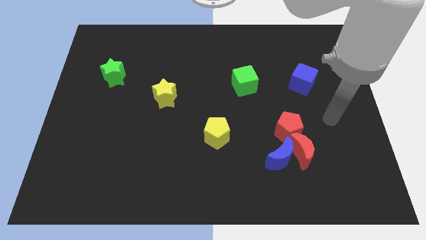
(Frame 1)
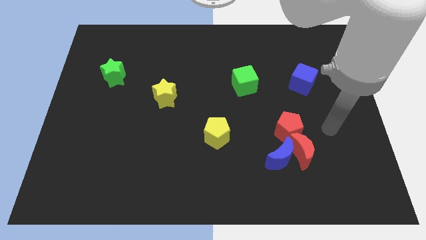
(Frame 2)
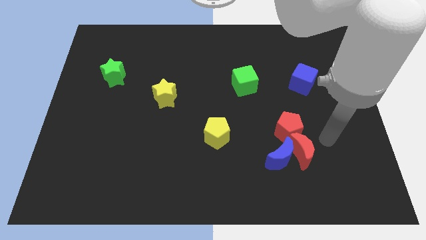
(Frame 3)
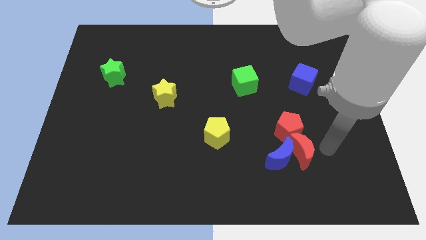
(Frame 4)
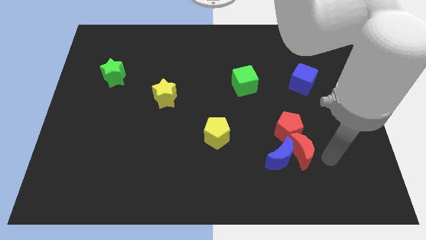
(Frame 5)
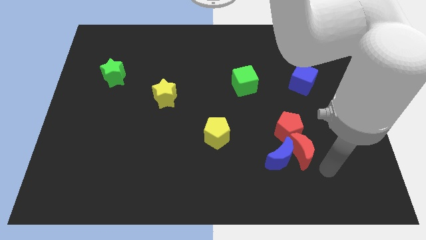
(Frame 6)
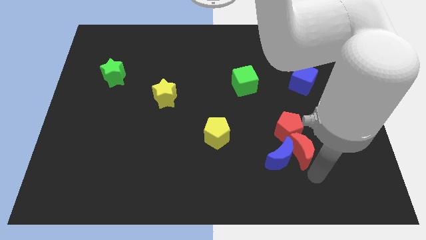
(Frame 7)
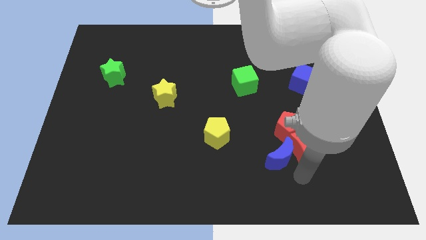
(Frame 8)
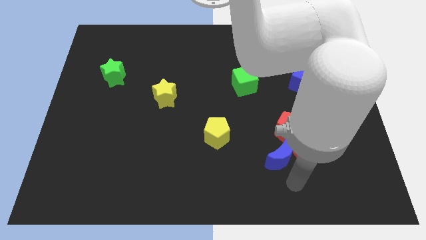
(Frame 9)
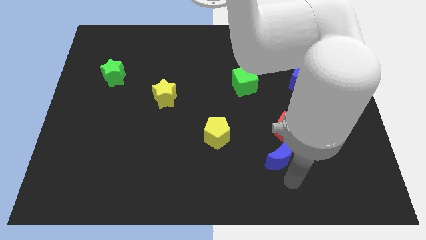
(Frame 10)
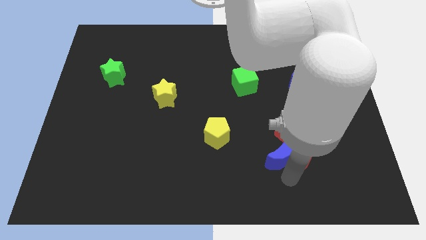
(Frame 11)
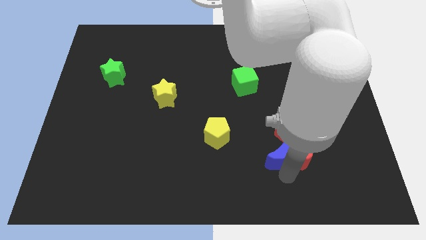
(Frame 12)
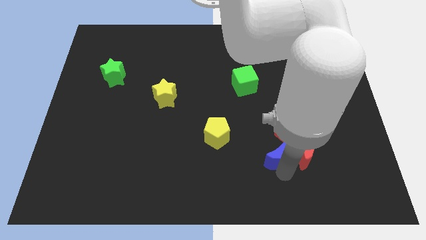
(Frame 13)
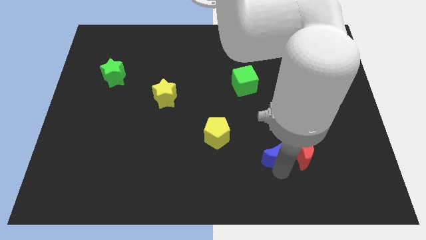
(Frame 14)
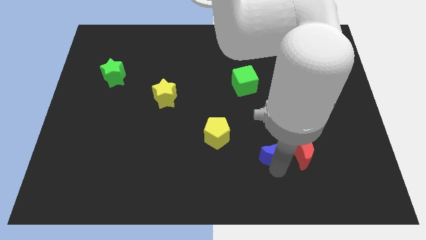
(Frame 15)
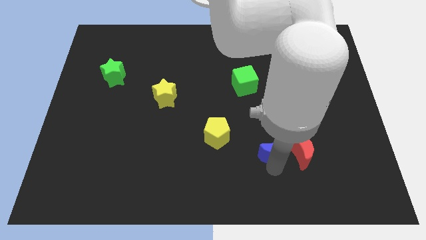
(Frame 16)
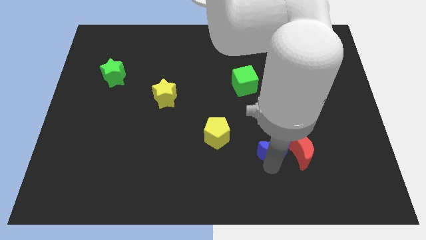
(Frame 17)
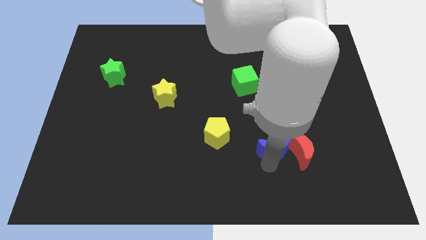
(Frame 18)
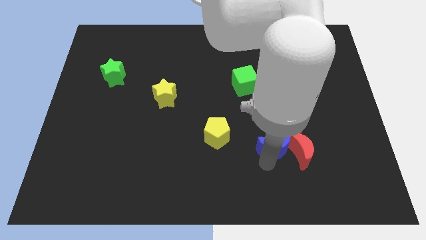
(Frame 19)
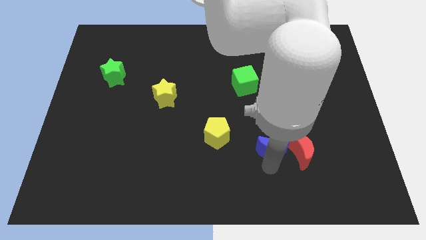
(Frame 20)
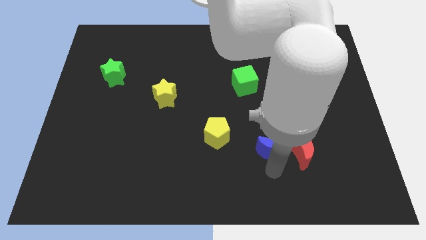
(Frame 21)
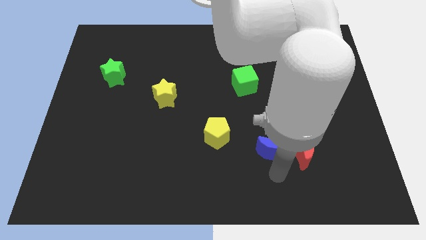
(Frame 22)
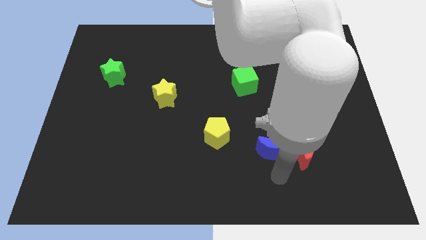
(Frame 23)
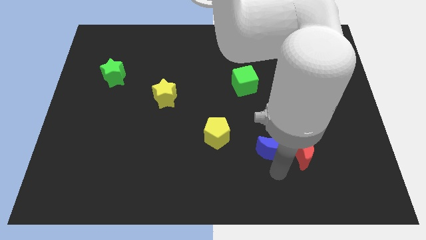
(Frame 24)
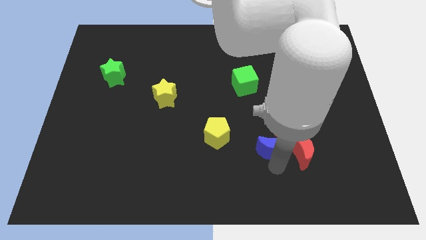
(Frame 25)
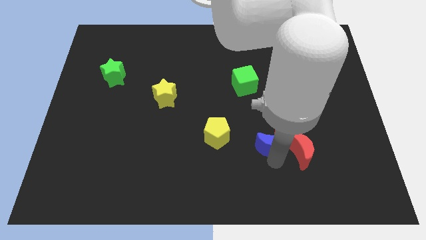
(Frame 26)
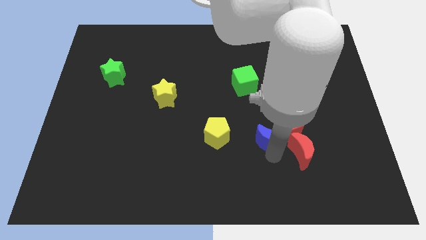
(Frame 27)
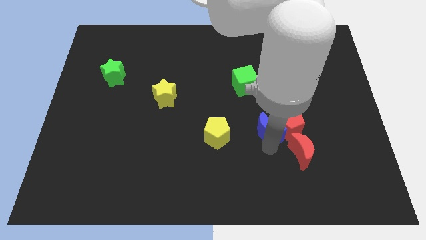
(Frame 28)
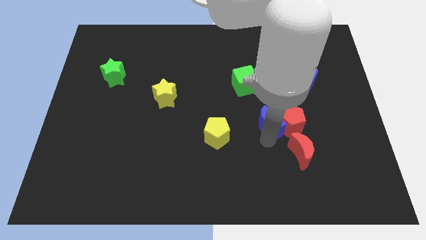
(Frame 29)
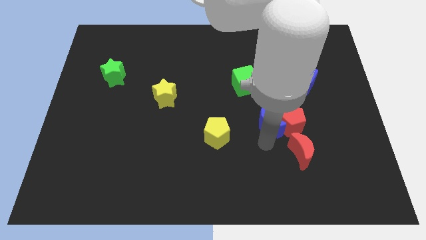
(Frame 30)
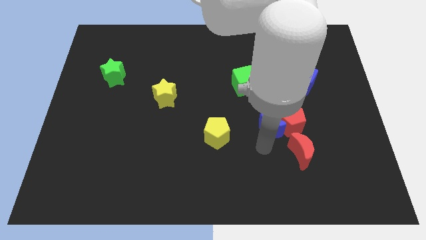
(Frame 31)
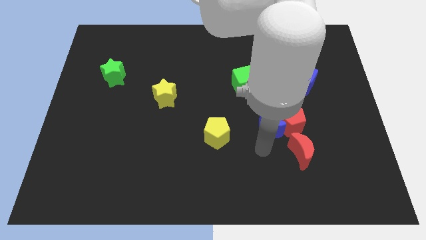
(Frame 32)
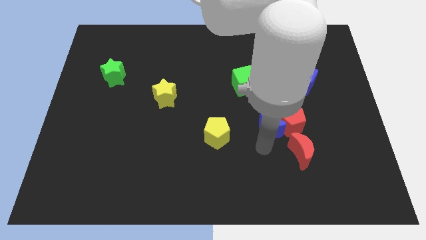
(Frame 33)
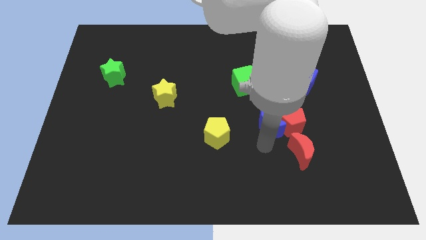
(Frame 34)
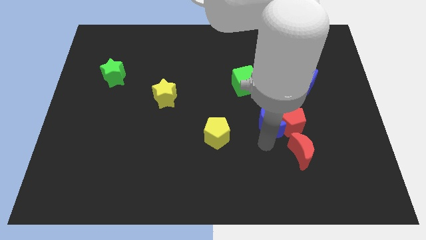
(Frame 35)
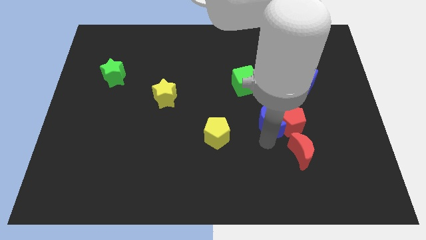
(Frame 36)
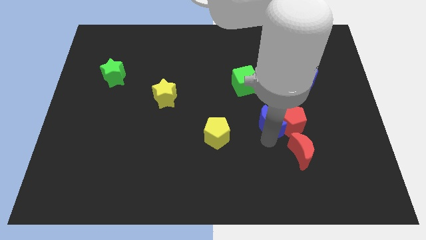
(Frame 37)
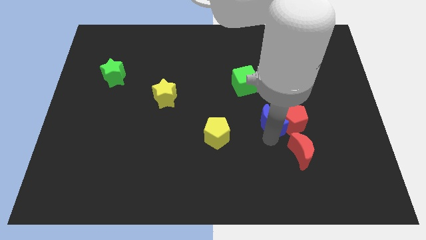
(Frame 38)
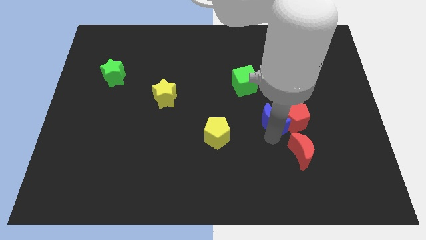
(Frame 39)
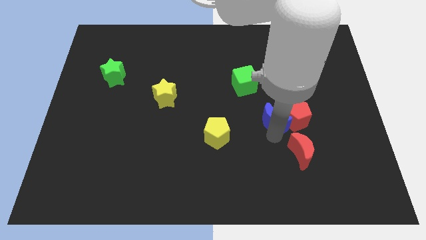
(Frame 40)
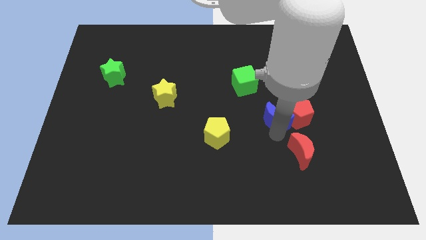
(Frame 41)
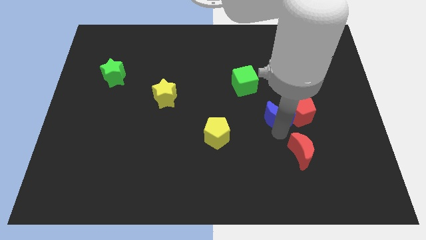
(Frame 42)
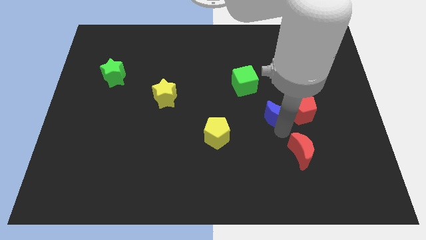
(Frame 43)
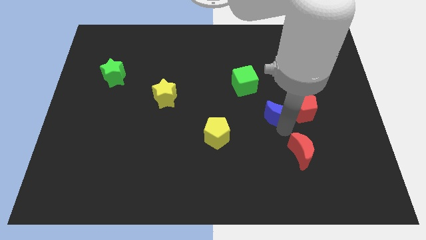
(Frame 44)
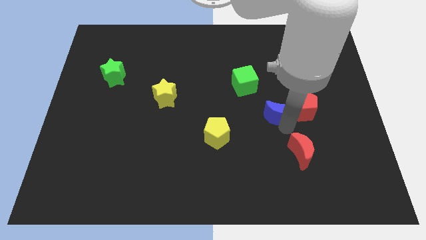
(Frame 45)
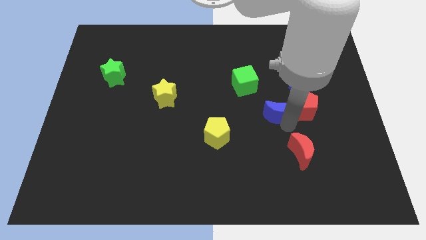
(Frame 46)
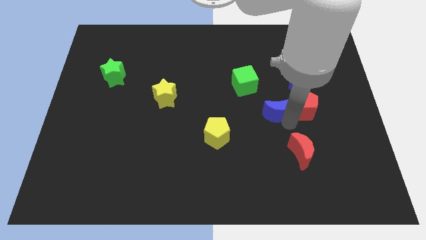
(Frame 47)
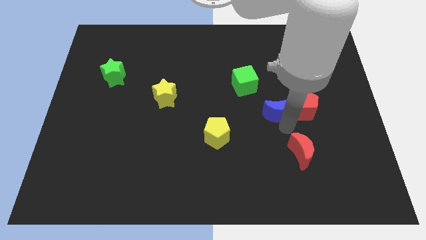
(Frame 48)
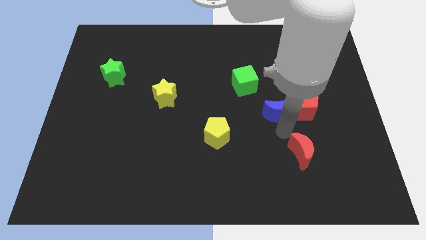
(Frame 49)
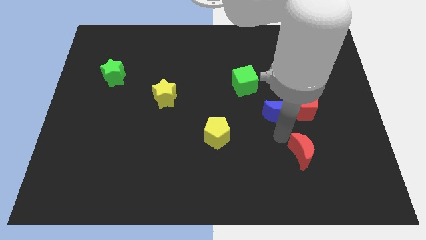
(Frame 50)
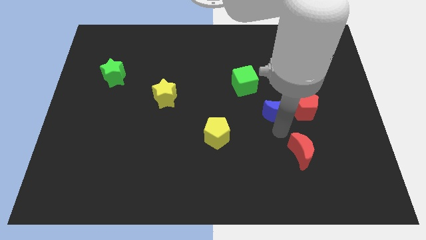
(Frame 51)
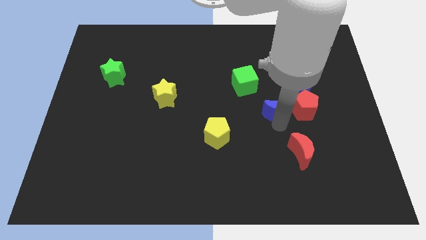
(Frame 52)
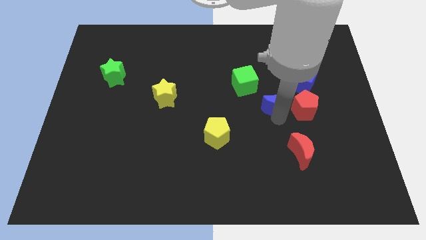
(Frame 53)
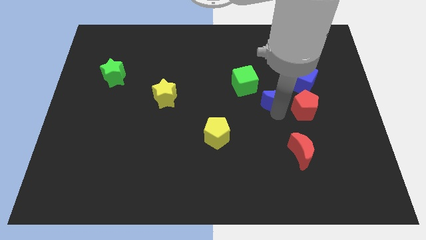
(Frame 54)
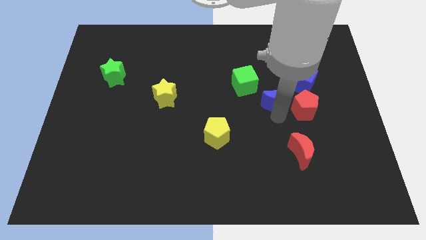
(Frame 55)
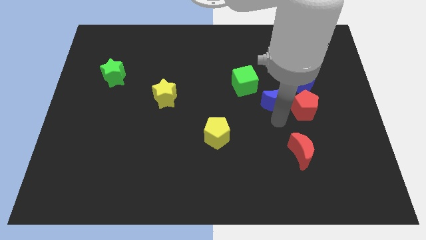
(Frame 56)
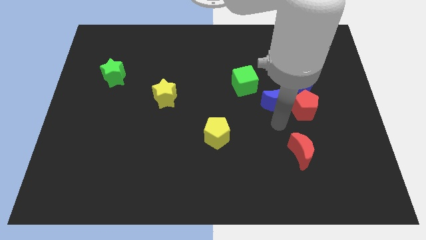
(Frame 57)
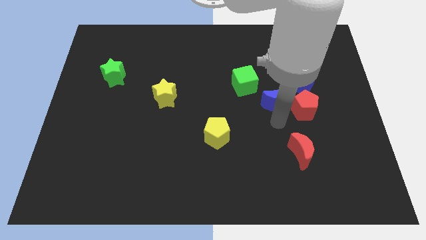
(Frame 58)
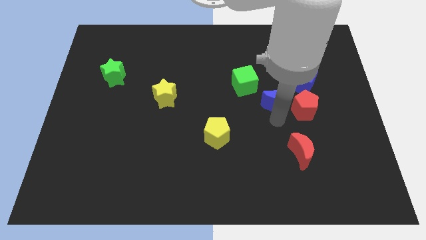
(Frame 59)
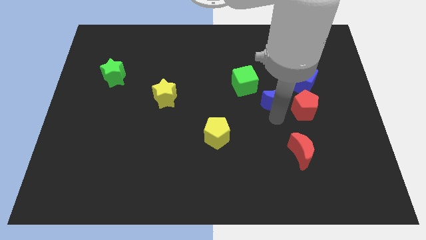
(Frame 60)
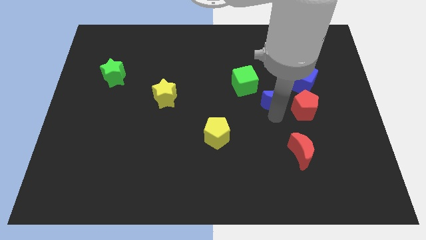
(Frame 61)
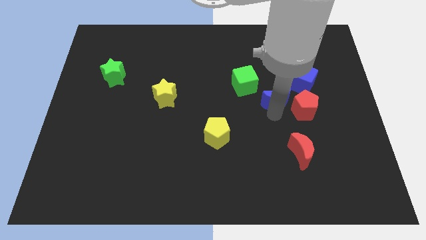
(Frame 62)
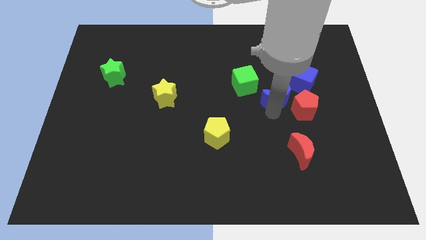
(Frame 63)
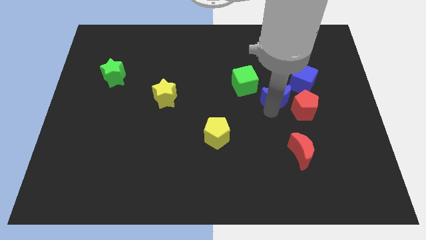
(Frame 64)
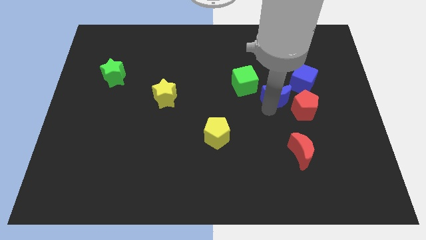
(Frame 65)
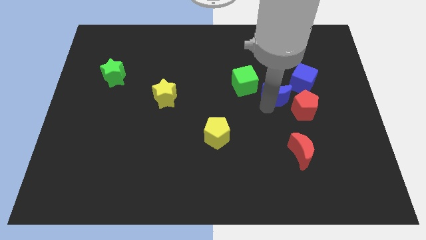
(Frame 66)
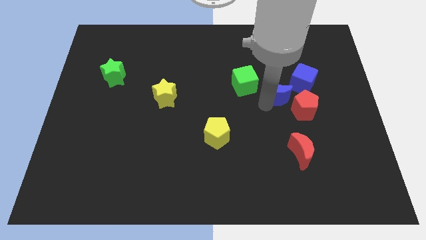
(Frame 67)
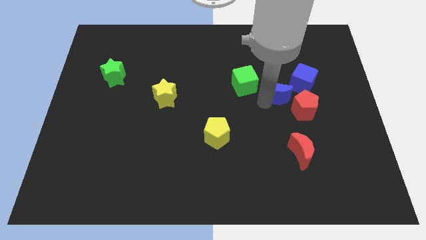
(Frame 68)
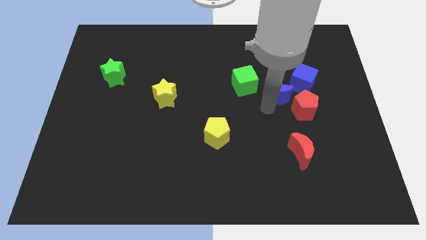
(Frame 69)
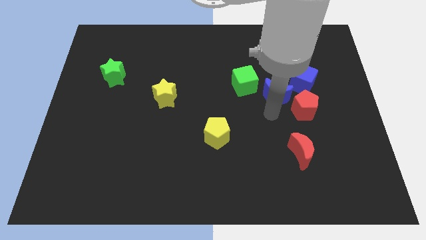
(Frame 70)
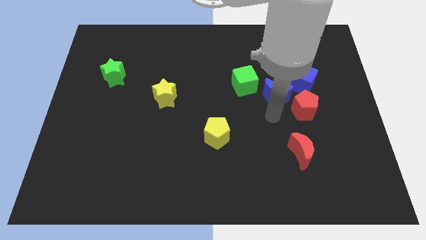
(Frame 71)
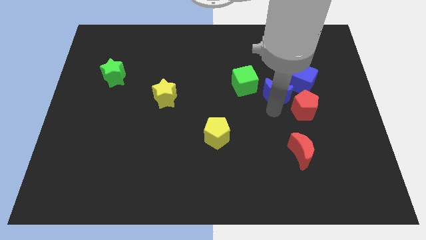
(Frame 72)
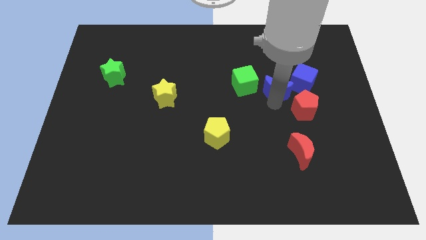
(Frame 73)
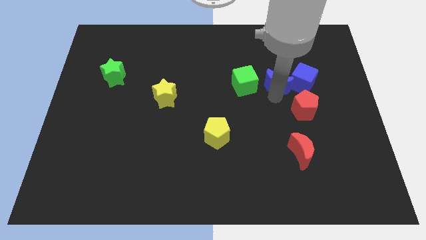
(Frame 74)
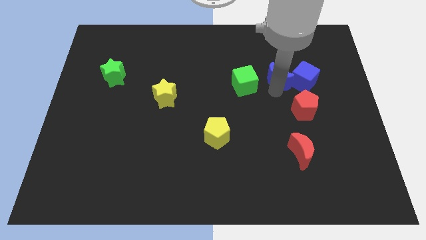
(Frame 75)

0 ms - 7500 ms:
move the blue moon diagonally up and to the left of the blue cube
